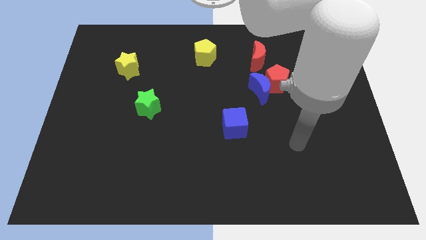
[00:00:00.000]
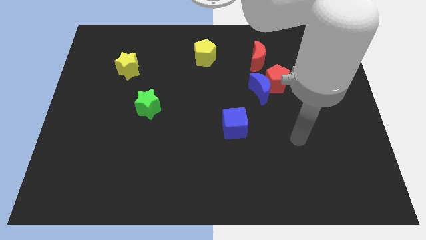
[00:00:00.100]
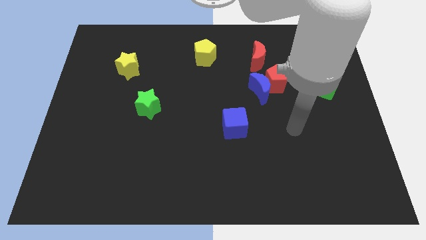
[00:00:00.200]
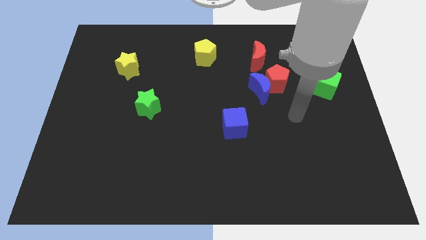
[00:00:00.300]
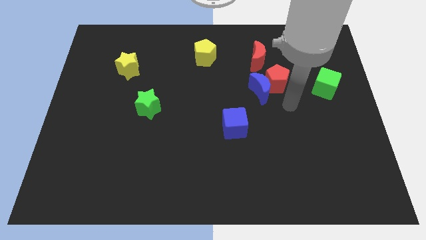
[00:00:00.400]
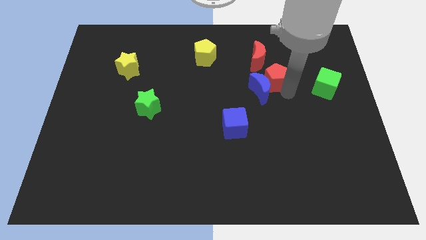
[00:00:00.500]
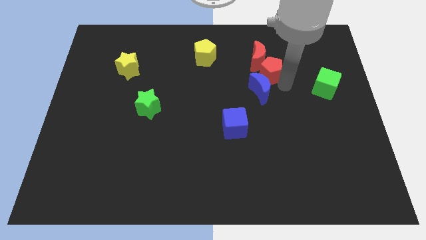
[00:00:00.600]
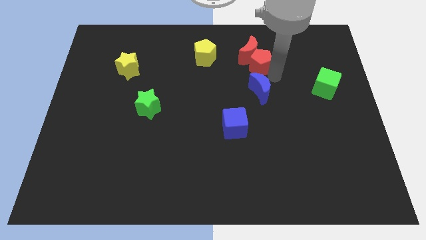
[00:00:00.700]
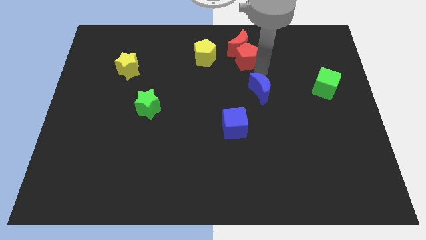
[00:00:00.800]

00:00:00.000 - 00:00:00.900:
separate the blue moon from the red pentagon

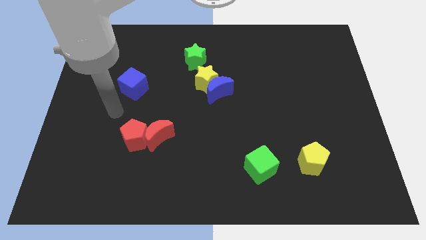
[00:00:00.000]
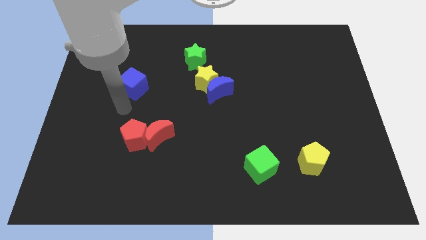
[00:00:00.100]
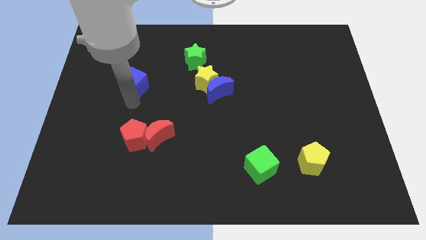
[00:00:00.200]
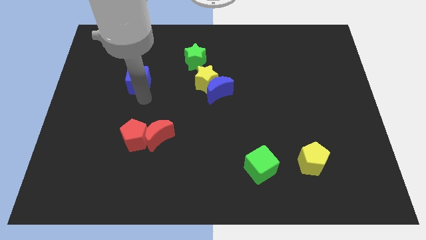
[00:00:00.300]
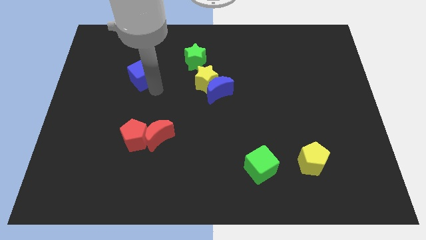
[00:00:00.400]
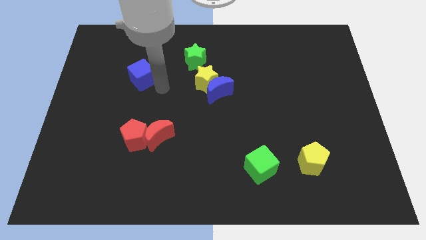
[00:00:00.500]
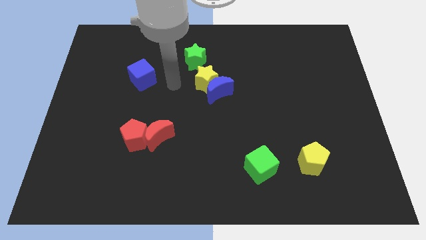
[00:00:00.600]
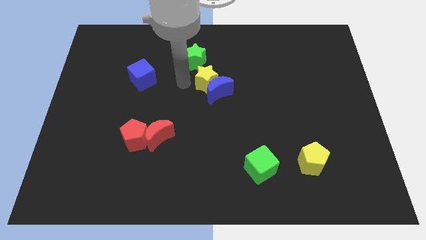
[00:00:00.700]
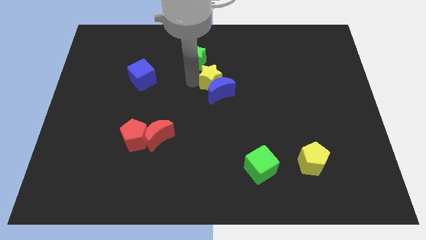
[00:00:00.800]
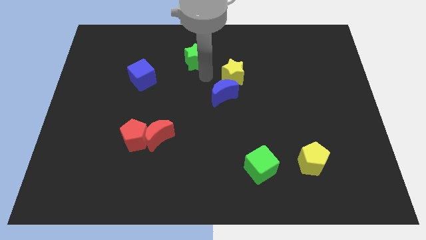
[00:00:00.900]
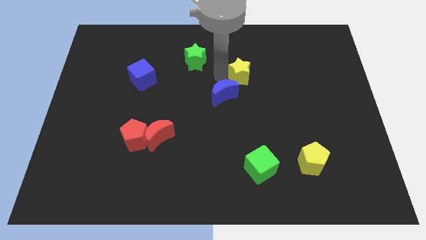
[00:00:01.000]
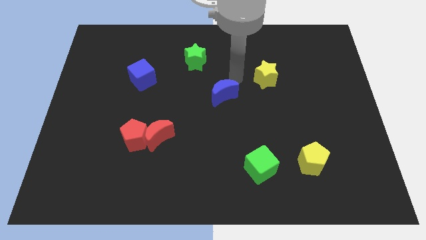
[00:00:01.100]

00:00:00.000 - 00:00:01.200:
move the blue moon away from the yellow star

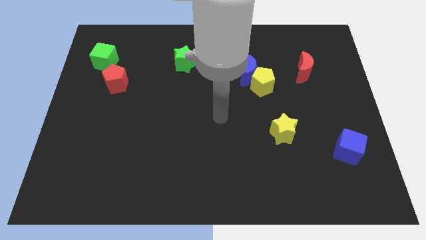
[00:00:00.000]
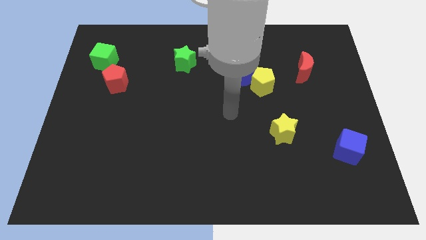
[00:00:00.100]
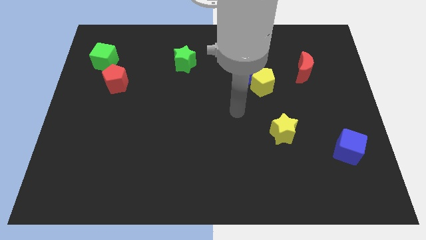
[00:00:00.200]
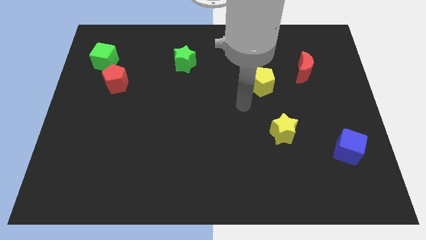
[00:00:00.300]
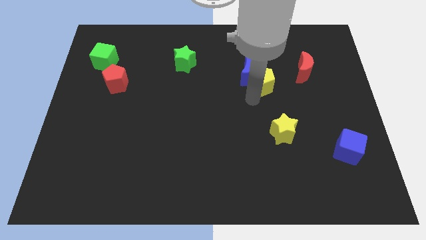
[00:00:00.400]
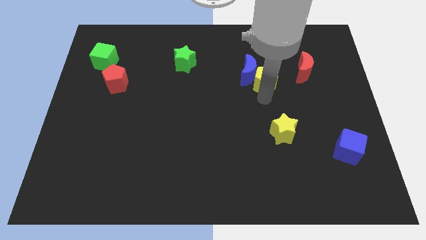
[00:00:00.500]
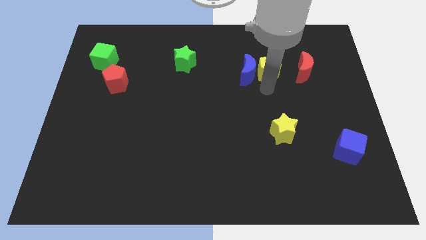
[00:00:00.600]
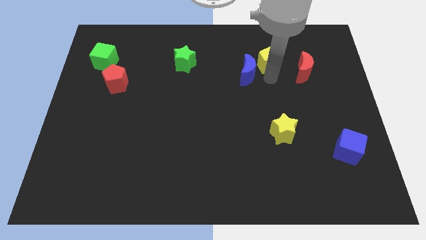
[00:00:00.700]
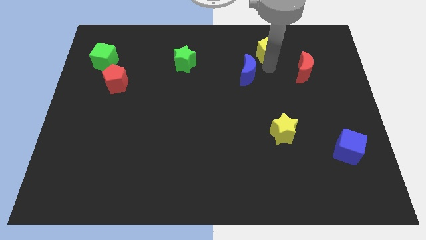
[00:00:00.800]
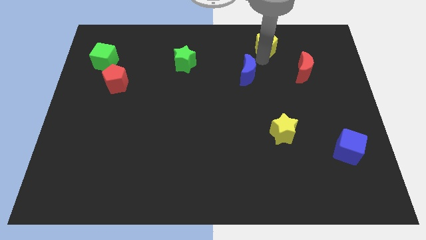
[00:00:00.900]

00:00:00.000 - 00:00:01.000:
separate the blue moon from the yellow pentagon

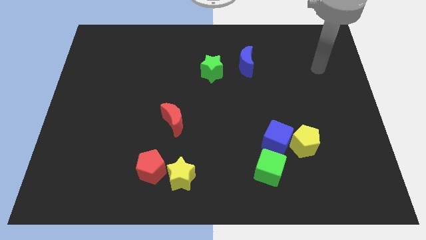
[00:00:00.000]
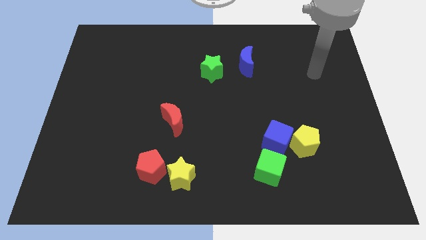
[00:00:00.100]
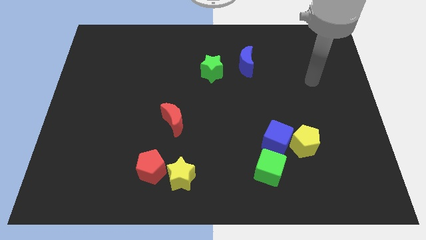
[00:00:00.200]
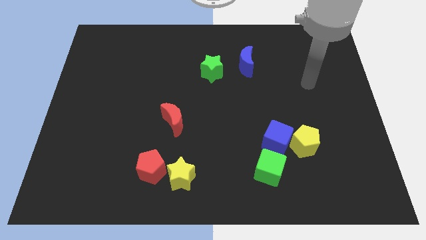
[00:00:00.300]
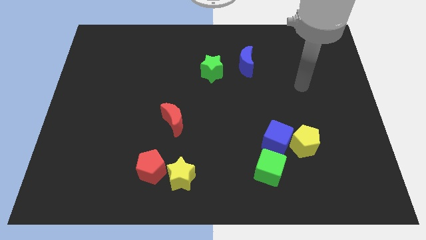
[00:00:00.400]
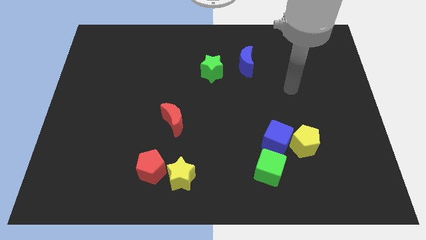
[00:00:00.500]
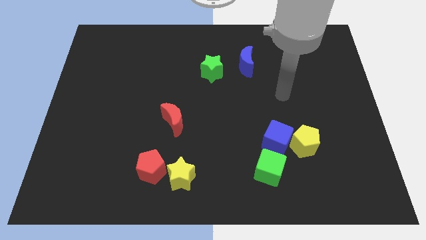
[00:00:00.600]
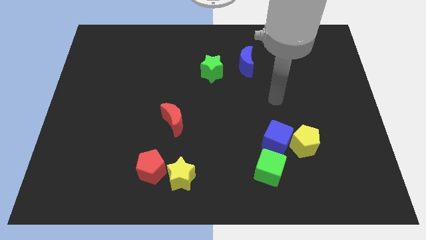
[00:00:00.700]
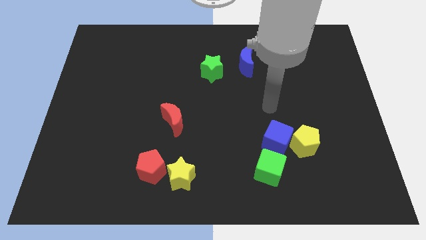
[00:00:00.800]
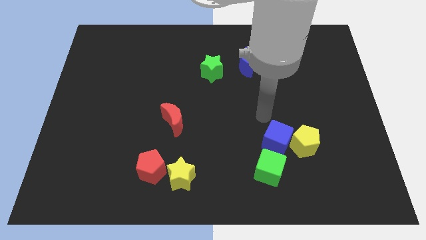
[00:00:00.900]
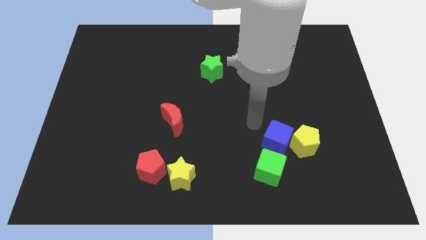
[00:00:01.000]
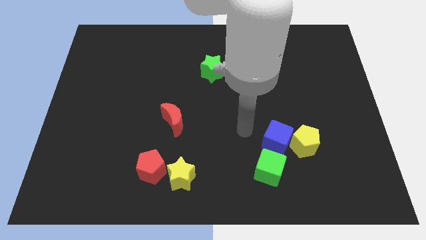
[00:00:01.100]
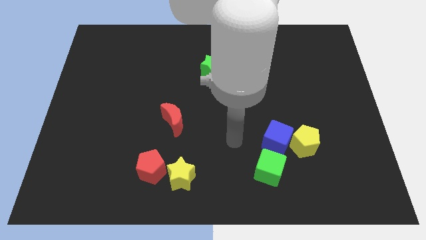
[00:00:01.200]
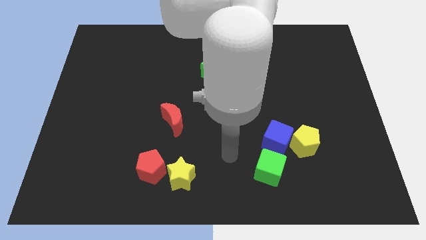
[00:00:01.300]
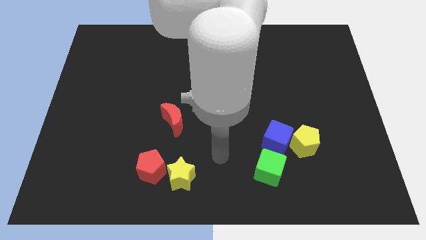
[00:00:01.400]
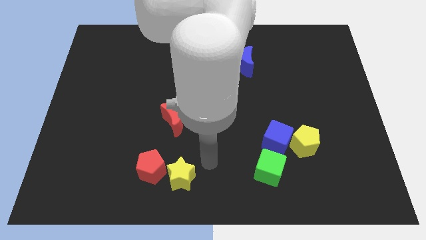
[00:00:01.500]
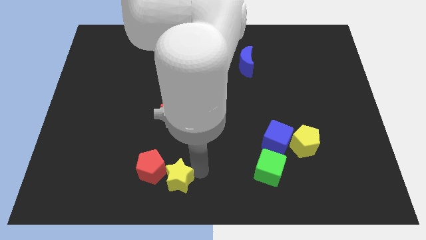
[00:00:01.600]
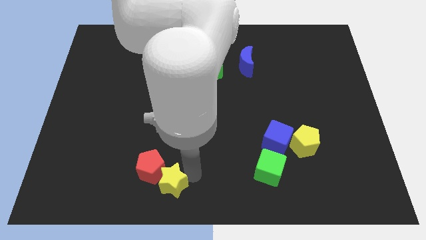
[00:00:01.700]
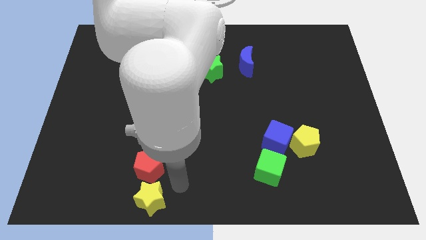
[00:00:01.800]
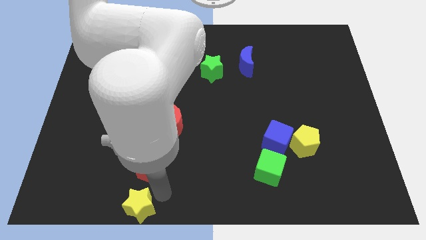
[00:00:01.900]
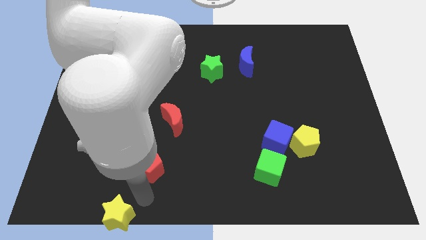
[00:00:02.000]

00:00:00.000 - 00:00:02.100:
move the red pentagon away from the yellow star

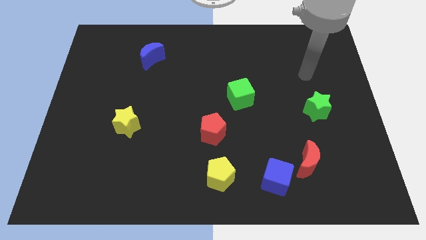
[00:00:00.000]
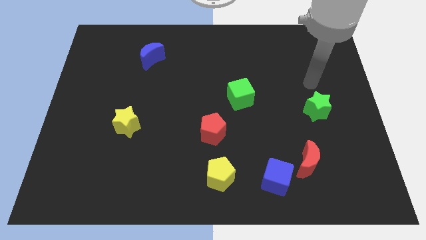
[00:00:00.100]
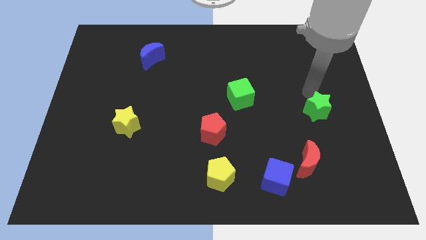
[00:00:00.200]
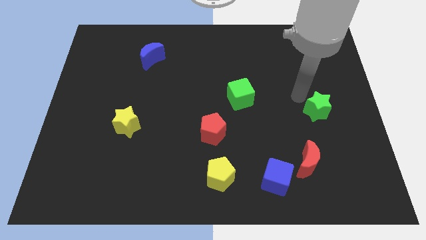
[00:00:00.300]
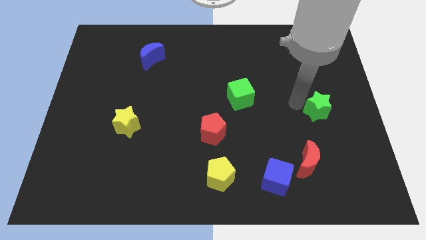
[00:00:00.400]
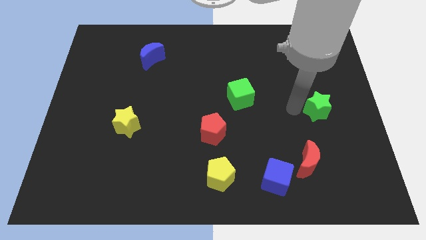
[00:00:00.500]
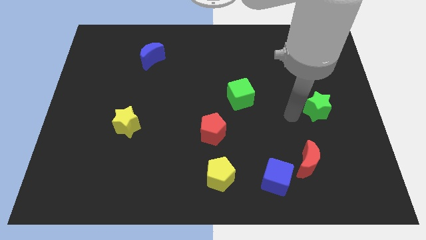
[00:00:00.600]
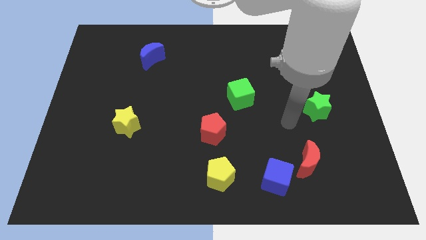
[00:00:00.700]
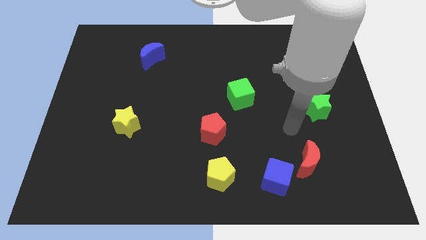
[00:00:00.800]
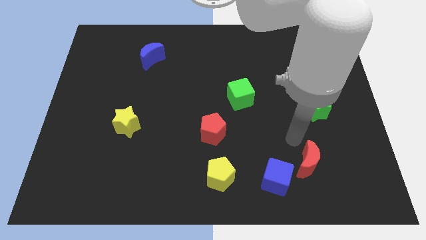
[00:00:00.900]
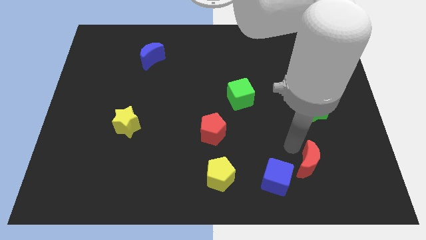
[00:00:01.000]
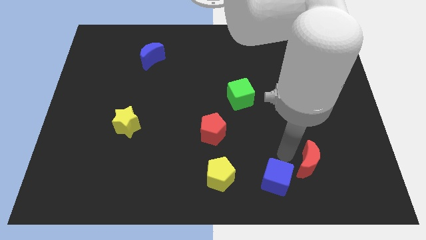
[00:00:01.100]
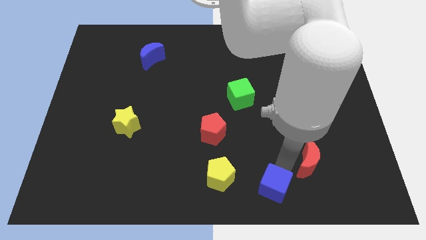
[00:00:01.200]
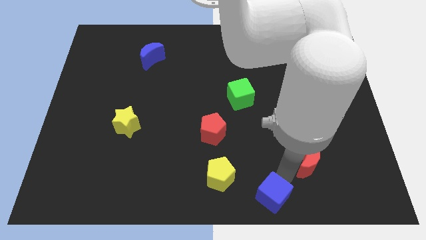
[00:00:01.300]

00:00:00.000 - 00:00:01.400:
move the red moon away from the blue cube

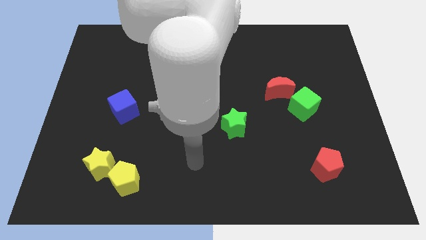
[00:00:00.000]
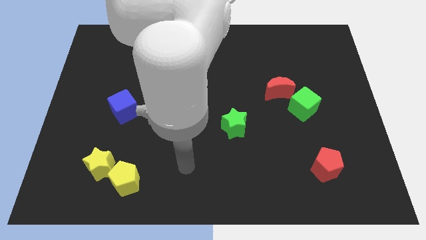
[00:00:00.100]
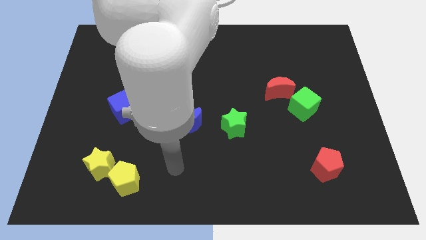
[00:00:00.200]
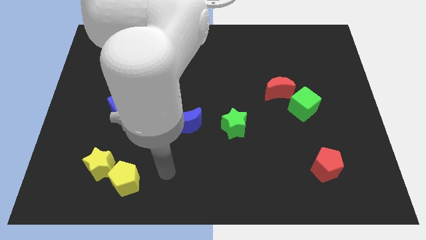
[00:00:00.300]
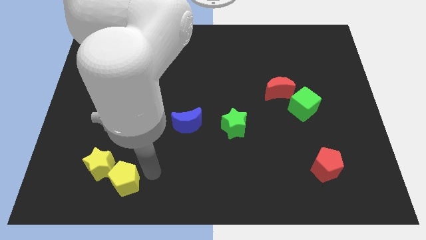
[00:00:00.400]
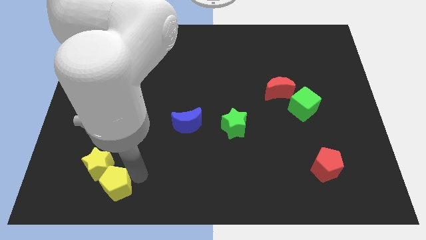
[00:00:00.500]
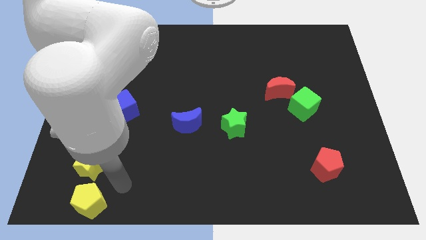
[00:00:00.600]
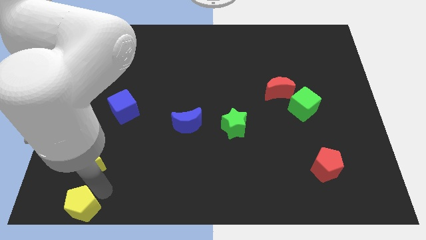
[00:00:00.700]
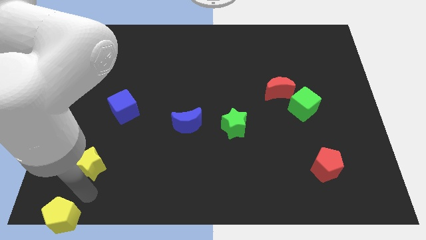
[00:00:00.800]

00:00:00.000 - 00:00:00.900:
separate the yellow star from the yellow pentagon

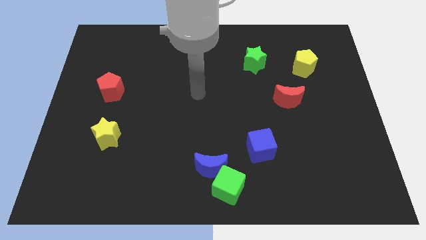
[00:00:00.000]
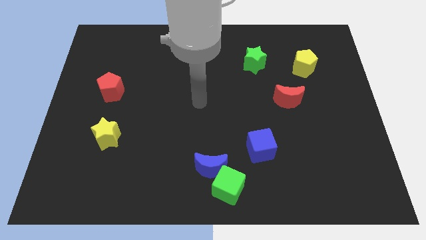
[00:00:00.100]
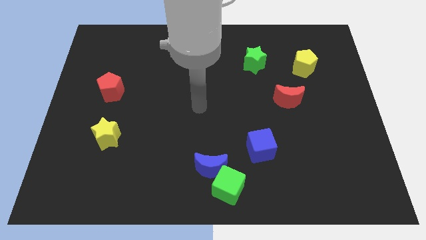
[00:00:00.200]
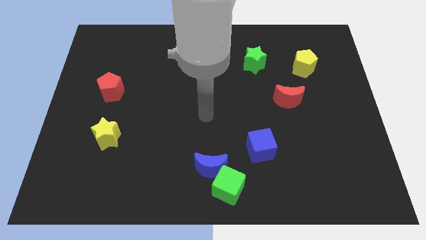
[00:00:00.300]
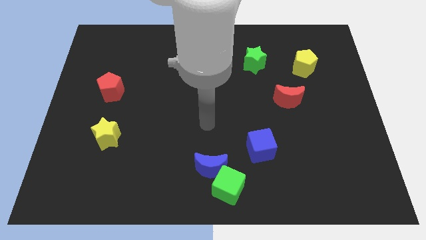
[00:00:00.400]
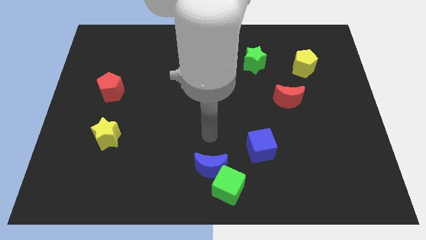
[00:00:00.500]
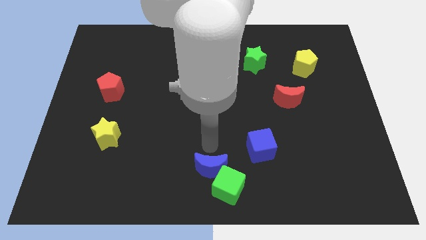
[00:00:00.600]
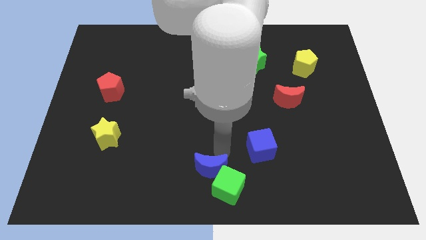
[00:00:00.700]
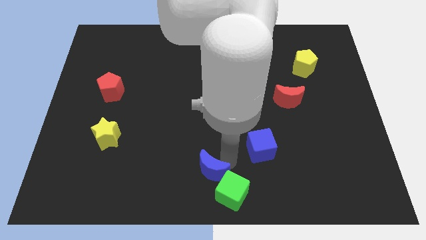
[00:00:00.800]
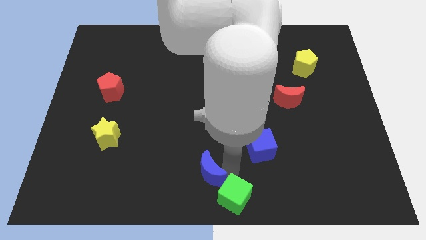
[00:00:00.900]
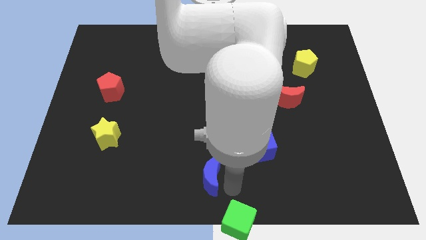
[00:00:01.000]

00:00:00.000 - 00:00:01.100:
separate the blue moon from the green cube

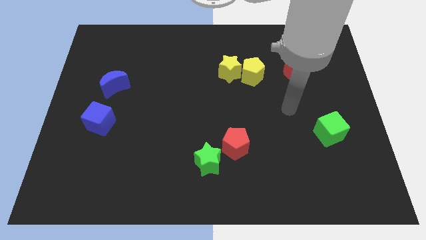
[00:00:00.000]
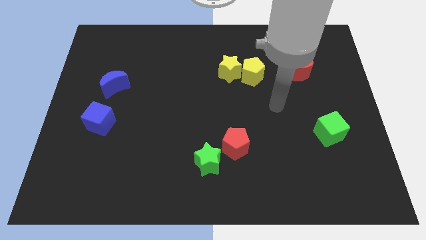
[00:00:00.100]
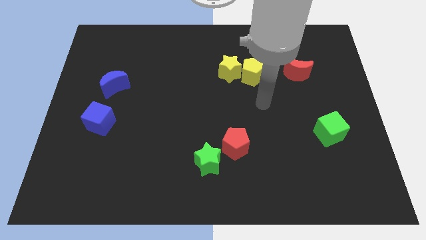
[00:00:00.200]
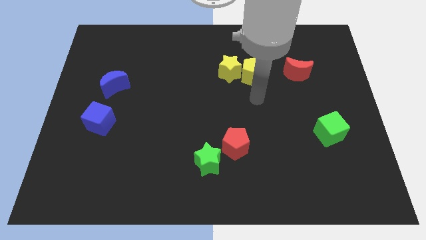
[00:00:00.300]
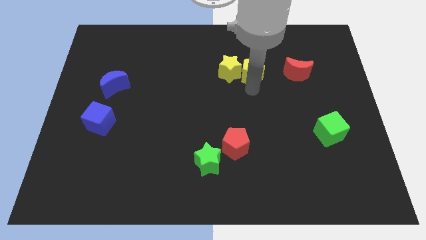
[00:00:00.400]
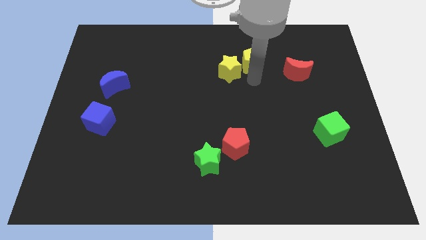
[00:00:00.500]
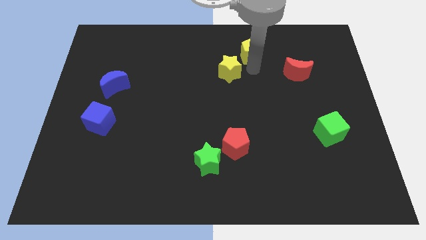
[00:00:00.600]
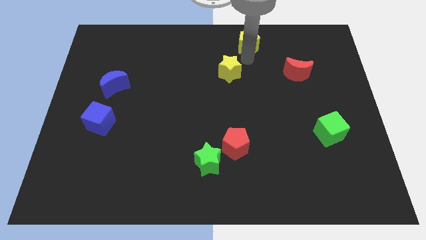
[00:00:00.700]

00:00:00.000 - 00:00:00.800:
pull the yellow star apart from the yellow pentagon
